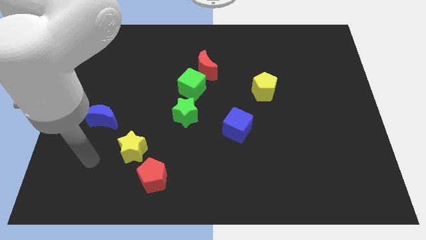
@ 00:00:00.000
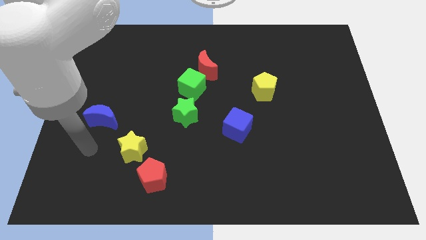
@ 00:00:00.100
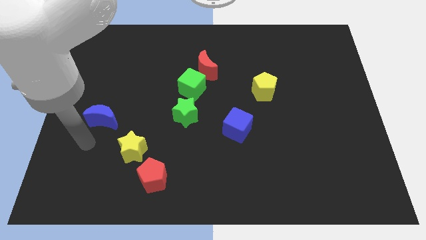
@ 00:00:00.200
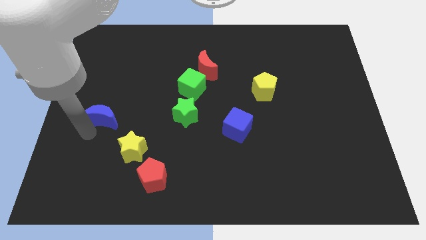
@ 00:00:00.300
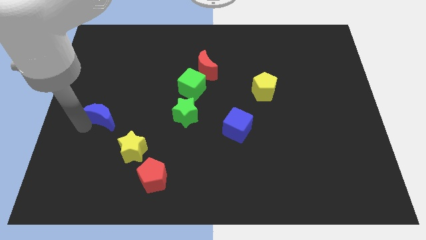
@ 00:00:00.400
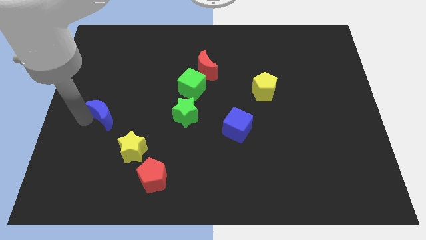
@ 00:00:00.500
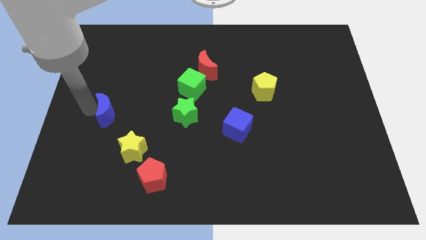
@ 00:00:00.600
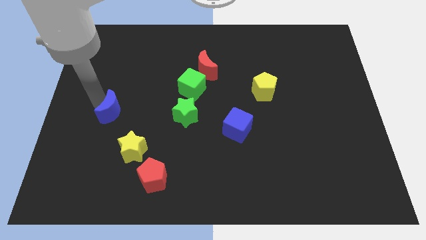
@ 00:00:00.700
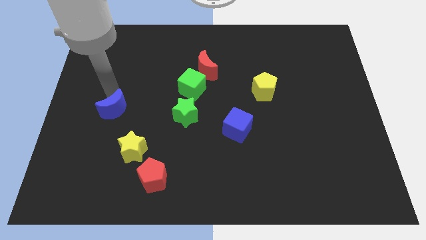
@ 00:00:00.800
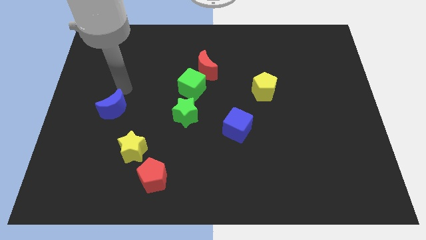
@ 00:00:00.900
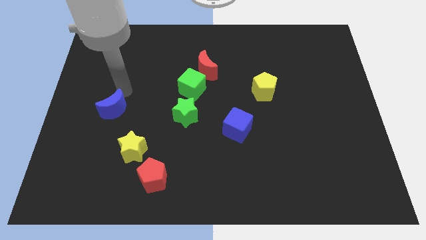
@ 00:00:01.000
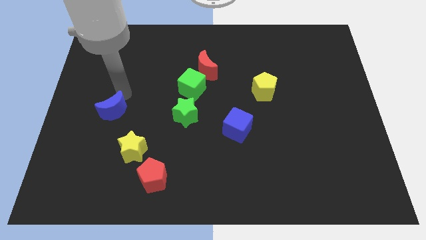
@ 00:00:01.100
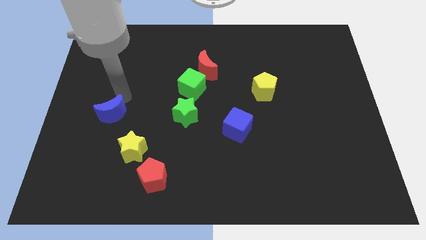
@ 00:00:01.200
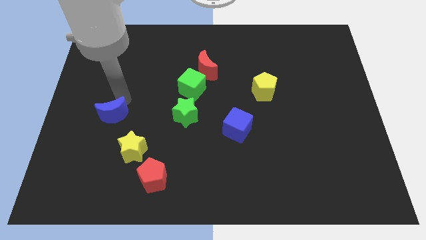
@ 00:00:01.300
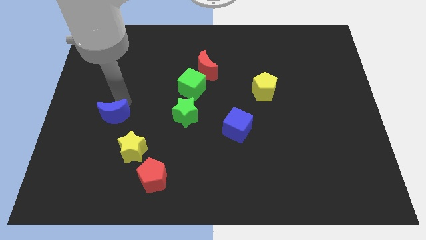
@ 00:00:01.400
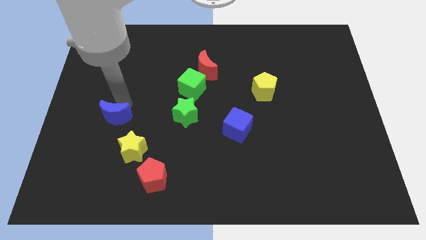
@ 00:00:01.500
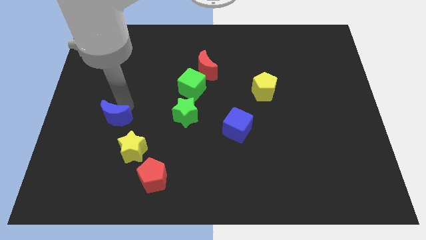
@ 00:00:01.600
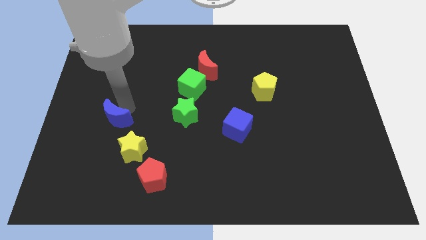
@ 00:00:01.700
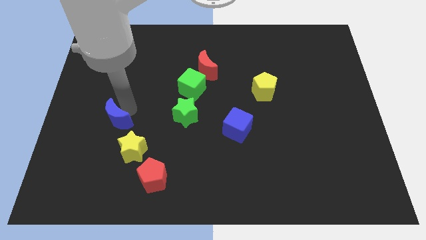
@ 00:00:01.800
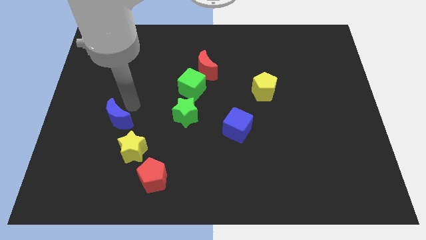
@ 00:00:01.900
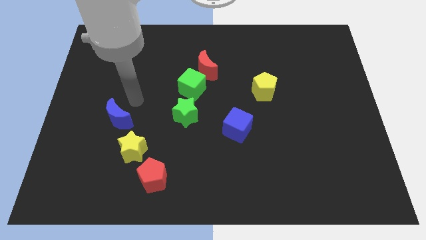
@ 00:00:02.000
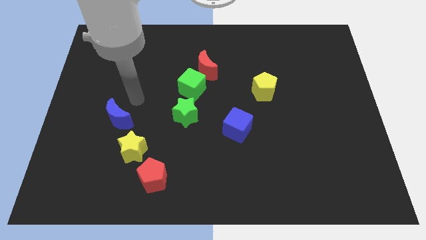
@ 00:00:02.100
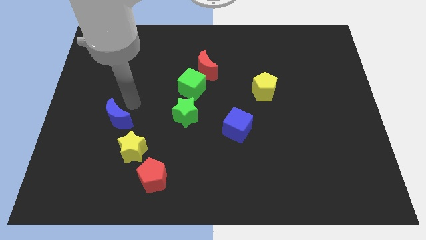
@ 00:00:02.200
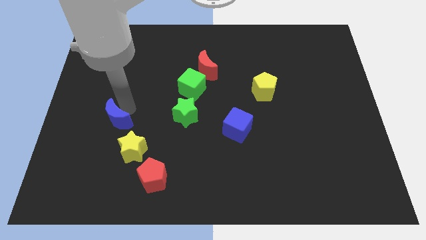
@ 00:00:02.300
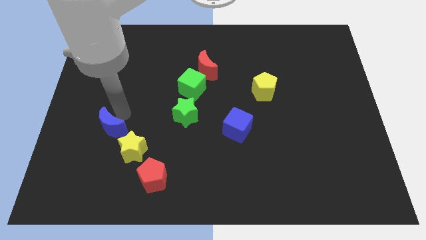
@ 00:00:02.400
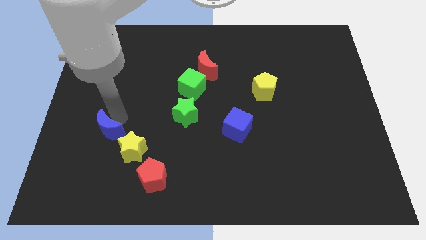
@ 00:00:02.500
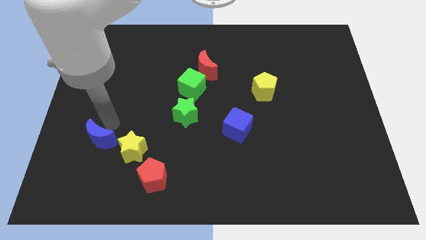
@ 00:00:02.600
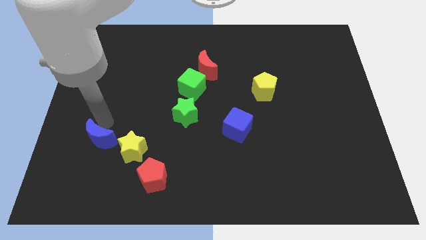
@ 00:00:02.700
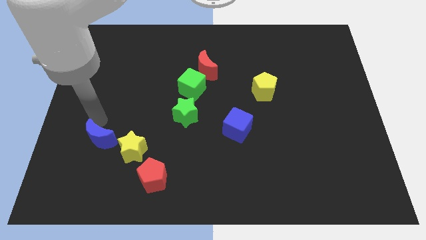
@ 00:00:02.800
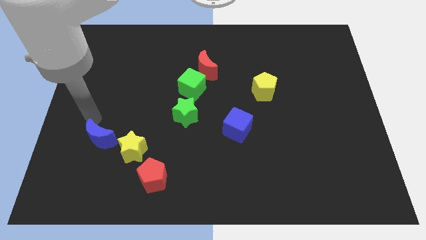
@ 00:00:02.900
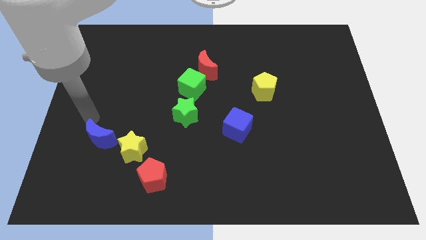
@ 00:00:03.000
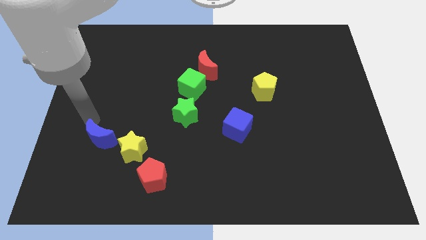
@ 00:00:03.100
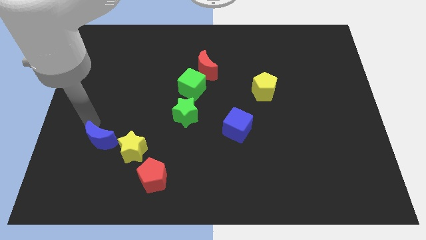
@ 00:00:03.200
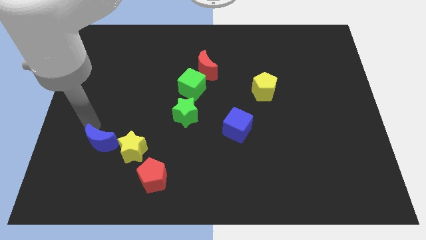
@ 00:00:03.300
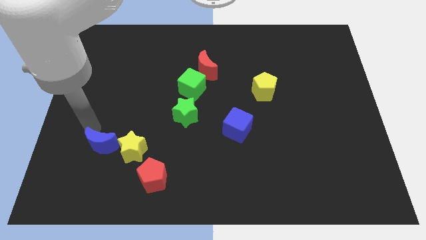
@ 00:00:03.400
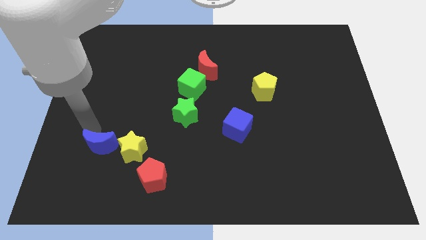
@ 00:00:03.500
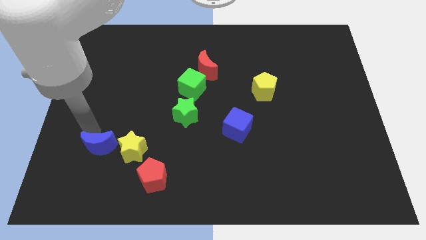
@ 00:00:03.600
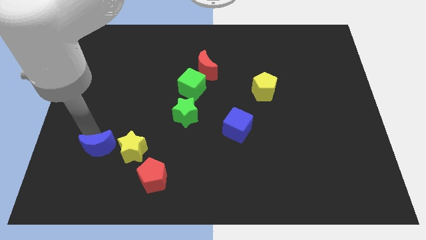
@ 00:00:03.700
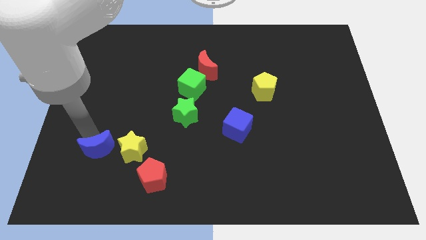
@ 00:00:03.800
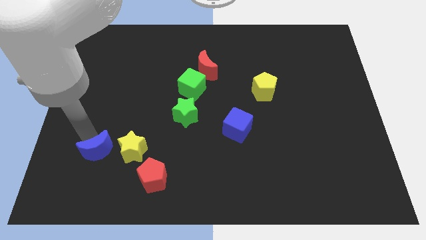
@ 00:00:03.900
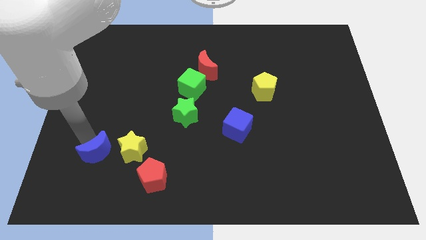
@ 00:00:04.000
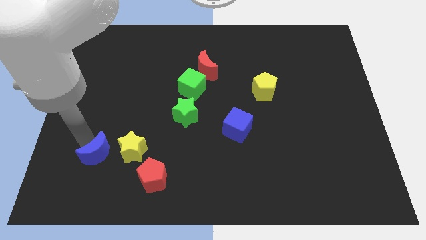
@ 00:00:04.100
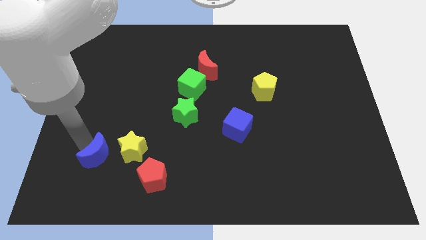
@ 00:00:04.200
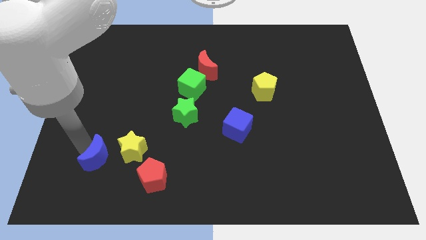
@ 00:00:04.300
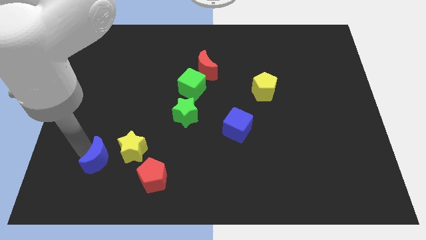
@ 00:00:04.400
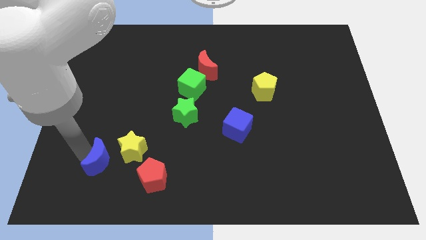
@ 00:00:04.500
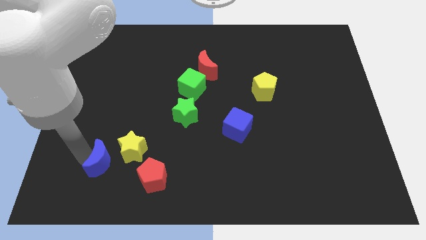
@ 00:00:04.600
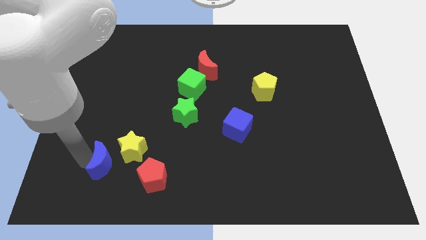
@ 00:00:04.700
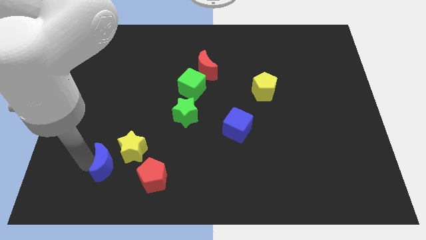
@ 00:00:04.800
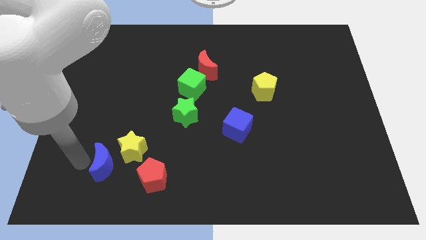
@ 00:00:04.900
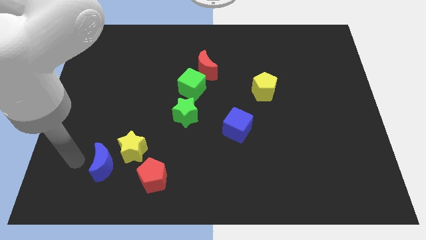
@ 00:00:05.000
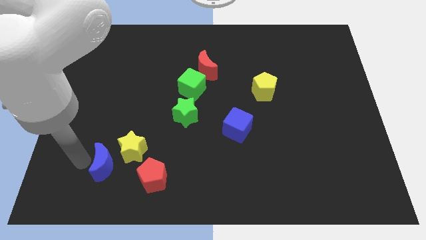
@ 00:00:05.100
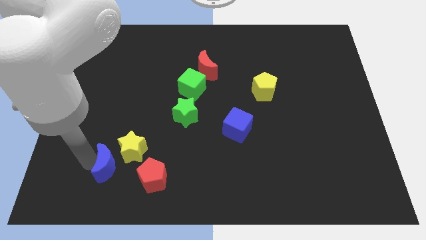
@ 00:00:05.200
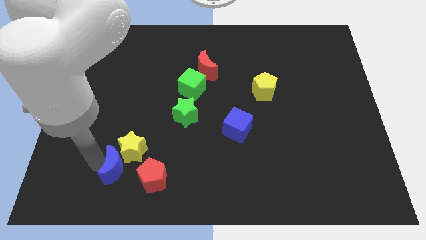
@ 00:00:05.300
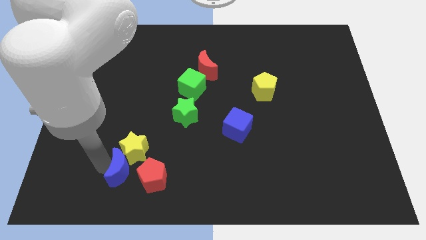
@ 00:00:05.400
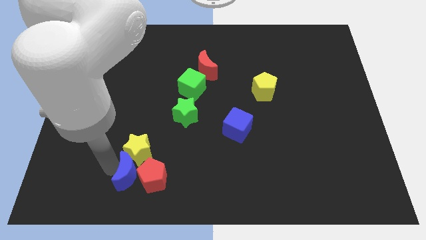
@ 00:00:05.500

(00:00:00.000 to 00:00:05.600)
put the blue moon towards the red pentagon

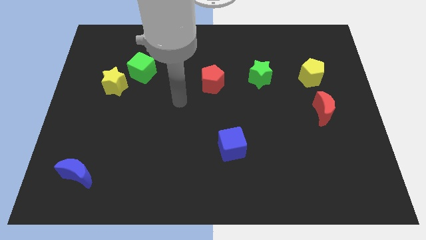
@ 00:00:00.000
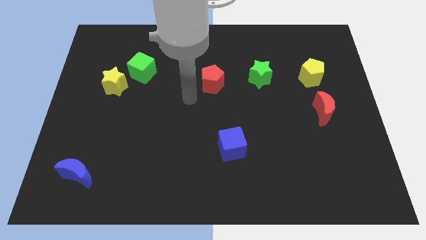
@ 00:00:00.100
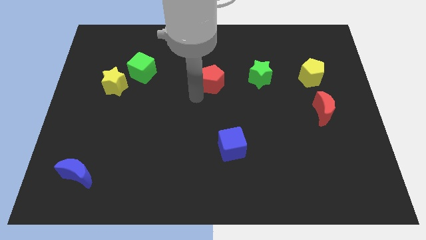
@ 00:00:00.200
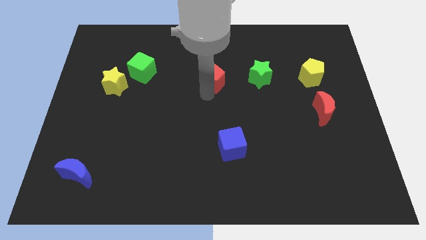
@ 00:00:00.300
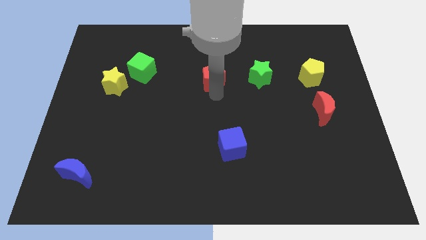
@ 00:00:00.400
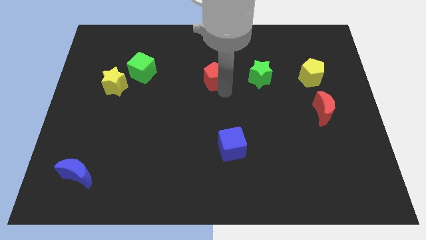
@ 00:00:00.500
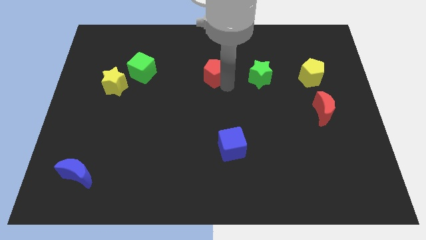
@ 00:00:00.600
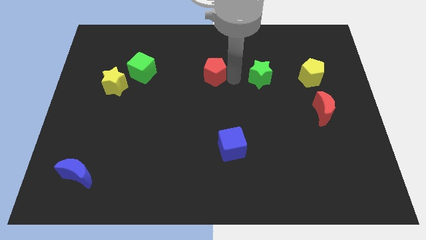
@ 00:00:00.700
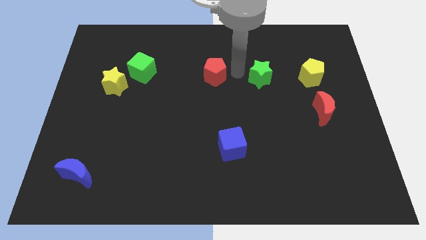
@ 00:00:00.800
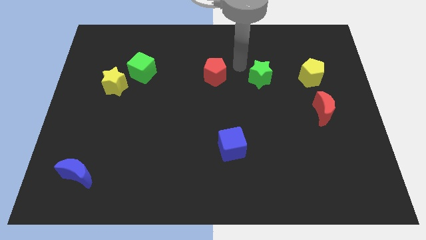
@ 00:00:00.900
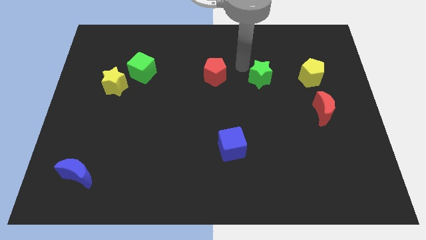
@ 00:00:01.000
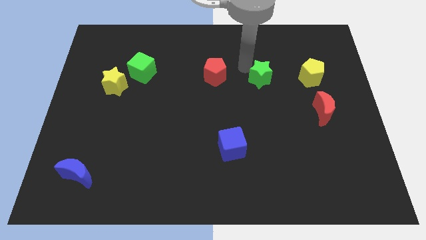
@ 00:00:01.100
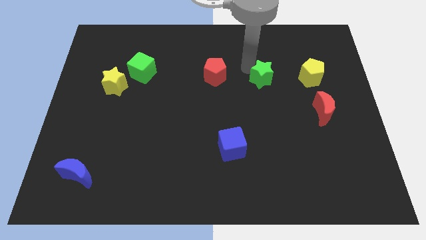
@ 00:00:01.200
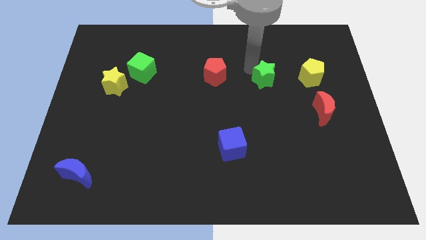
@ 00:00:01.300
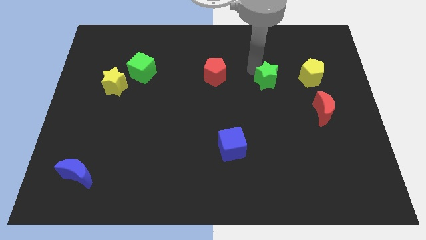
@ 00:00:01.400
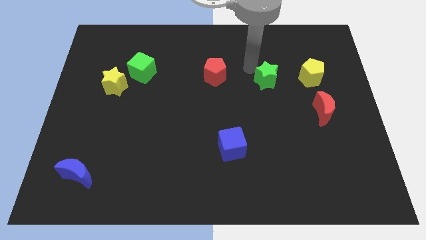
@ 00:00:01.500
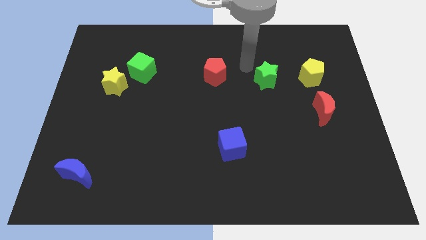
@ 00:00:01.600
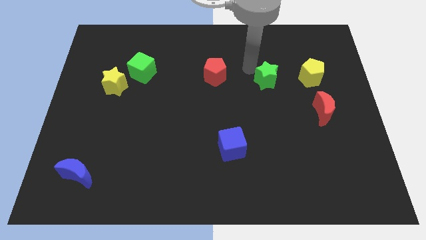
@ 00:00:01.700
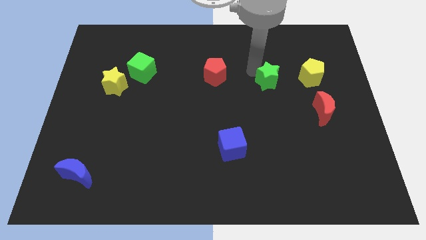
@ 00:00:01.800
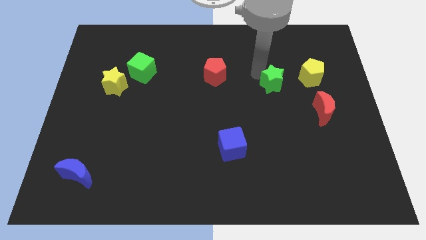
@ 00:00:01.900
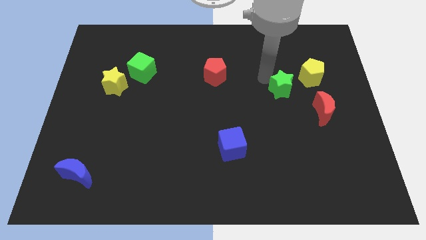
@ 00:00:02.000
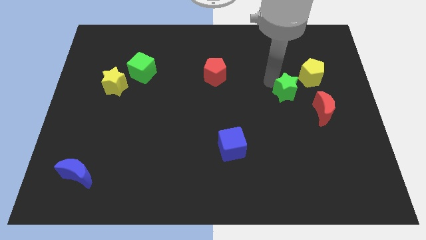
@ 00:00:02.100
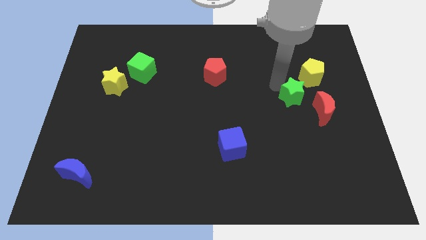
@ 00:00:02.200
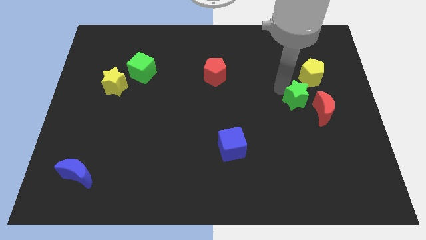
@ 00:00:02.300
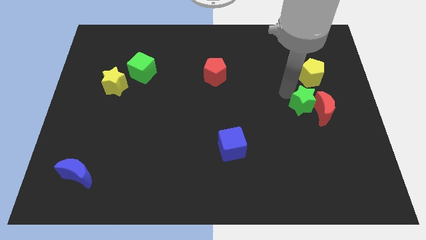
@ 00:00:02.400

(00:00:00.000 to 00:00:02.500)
move the green star close to the red moon
